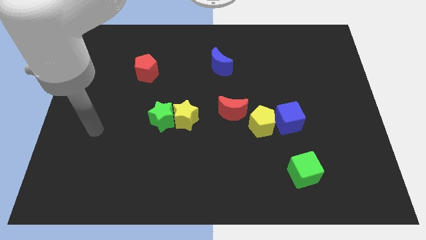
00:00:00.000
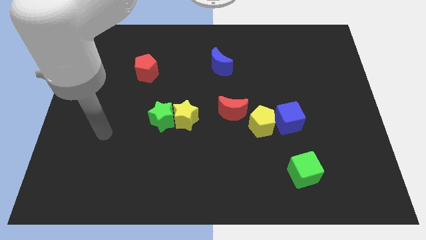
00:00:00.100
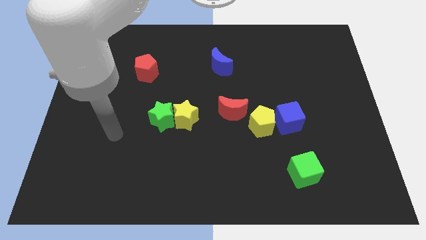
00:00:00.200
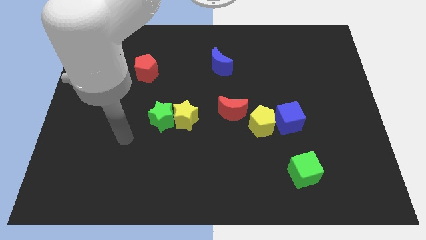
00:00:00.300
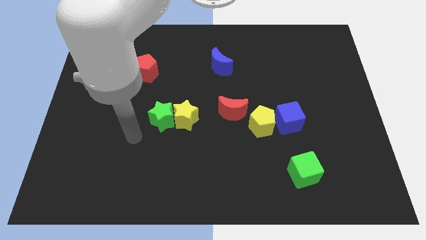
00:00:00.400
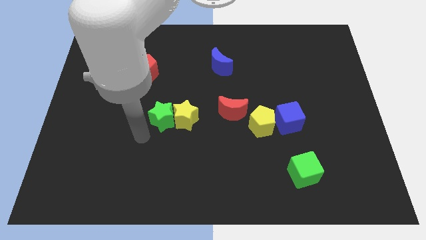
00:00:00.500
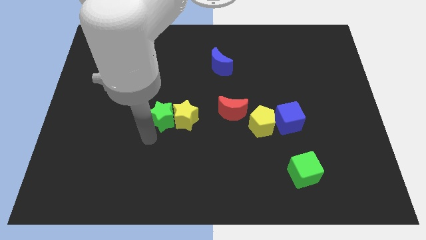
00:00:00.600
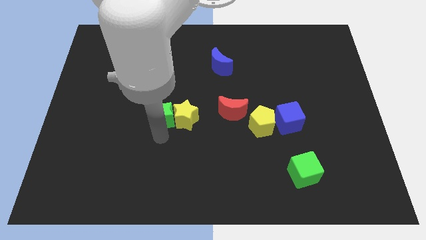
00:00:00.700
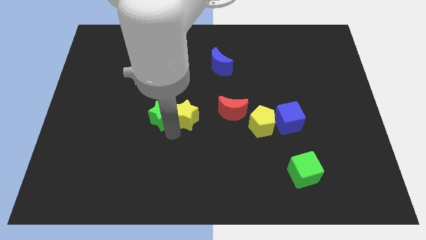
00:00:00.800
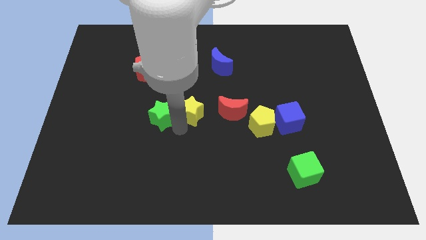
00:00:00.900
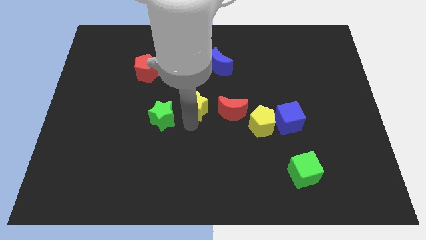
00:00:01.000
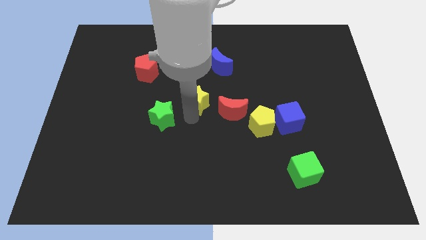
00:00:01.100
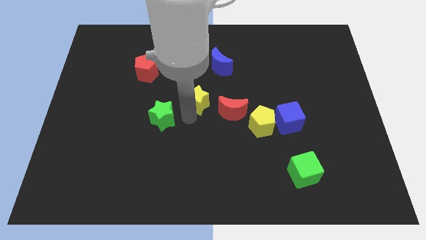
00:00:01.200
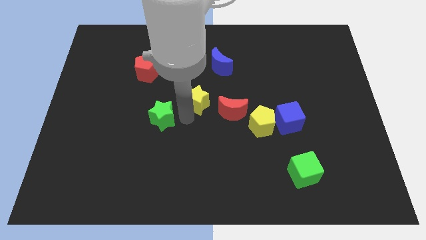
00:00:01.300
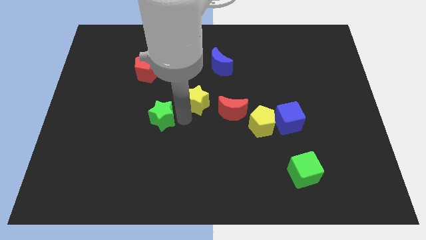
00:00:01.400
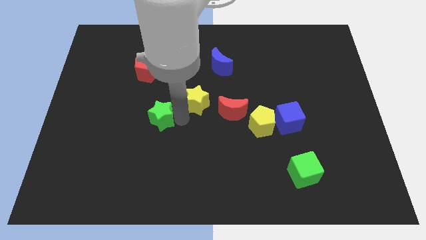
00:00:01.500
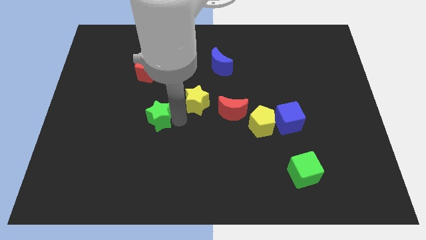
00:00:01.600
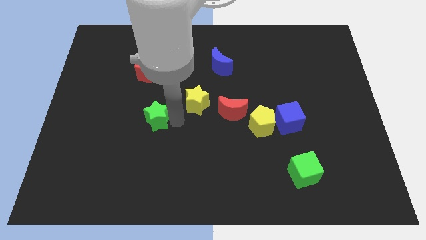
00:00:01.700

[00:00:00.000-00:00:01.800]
pull the green star apart from the yellow star

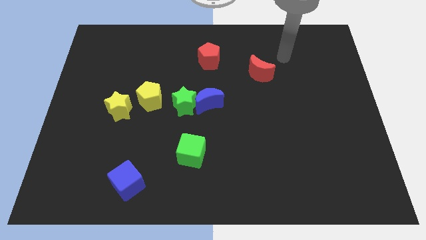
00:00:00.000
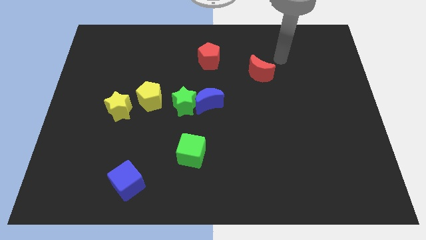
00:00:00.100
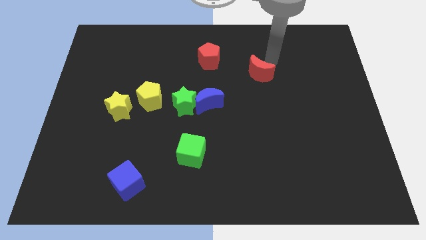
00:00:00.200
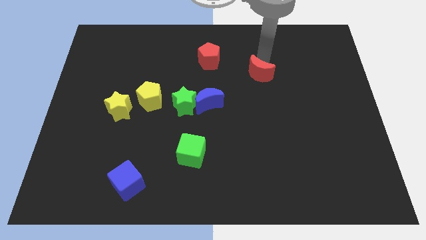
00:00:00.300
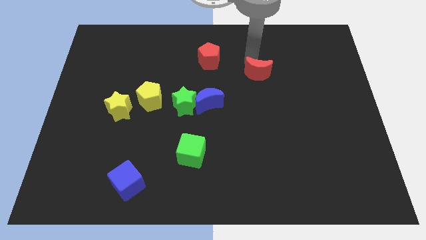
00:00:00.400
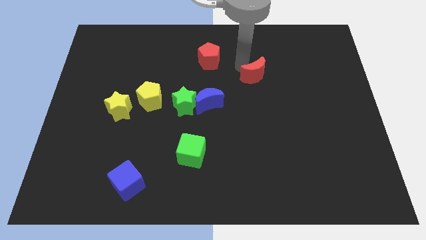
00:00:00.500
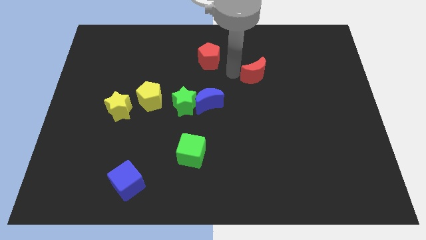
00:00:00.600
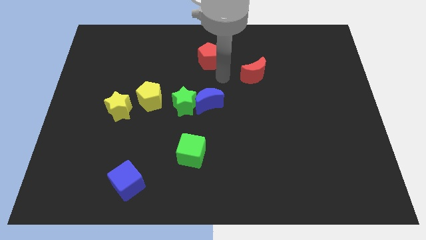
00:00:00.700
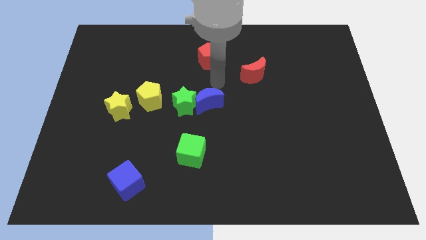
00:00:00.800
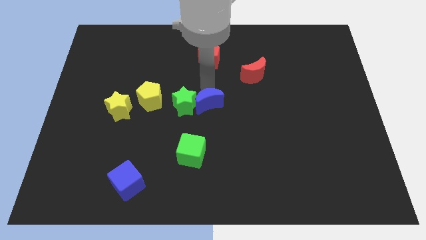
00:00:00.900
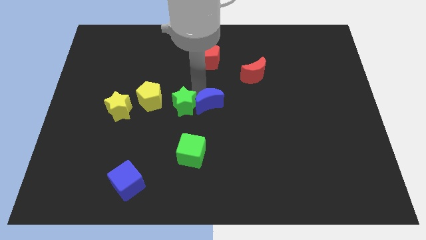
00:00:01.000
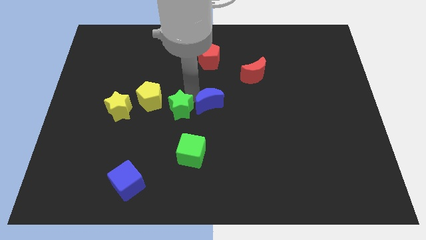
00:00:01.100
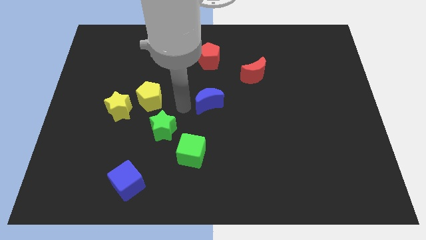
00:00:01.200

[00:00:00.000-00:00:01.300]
move the blue moon away from the green star

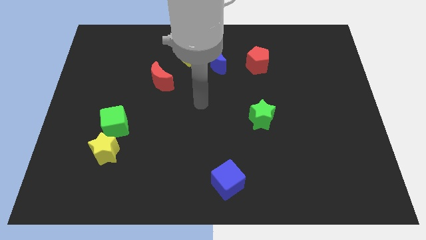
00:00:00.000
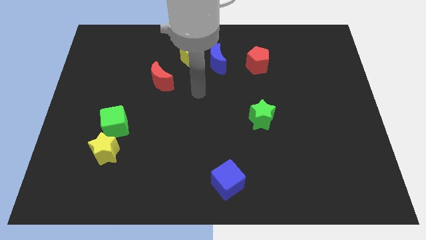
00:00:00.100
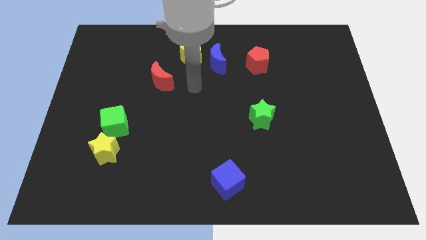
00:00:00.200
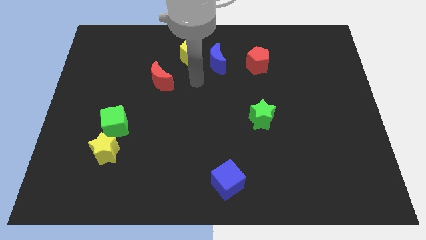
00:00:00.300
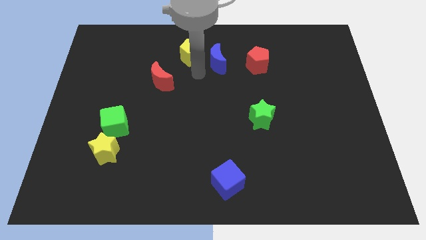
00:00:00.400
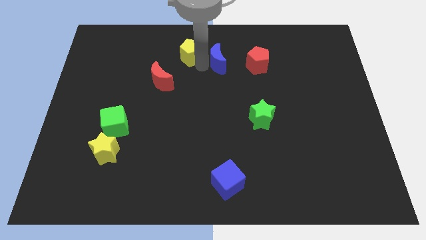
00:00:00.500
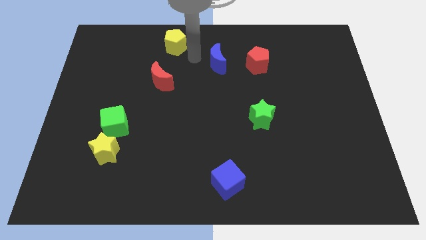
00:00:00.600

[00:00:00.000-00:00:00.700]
pull the blue moon apart from the yellow pentagon

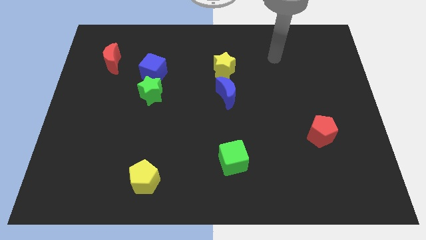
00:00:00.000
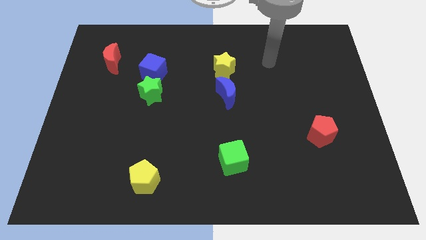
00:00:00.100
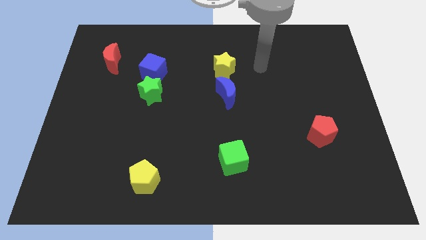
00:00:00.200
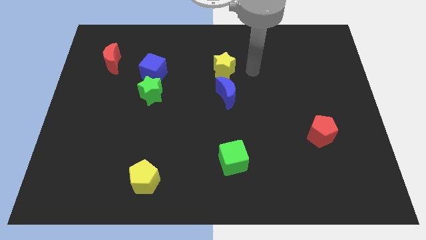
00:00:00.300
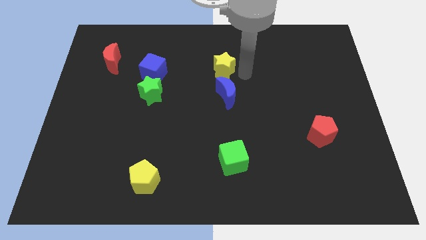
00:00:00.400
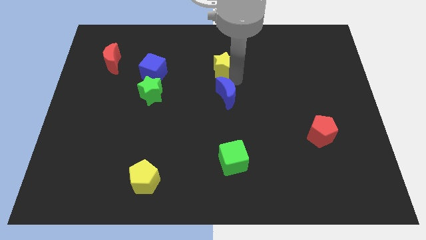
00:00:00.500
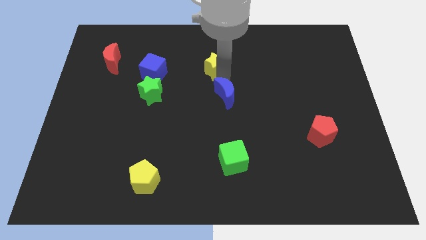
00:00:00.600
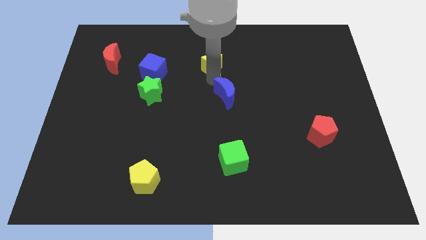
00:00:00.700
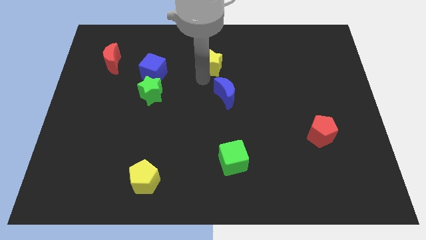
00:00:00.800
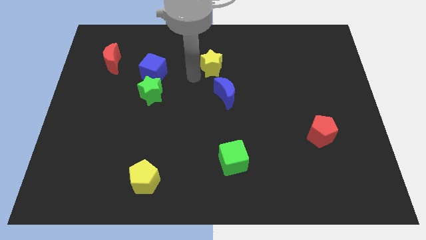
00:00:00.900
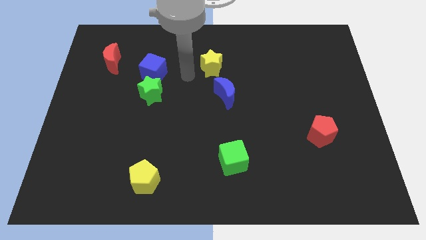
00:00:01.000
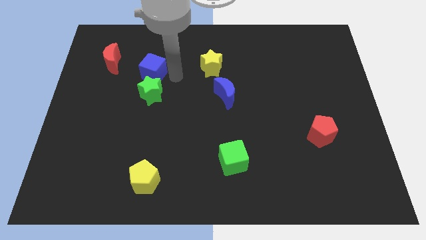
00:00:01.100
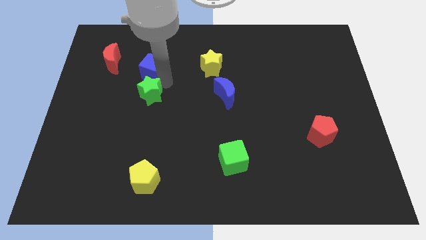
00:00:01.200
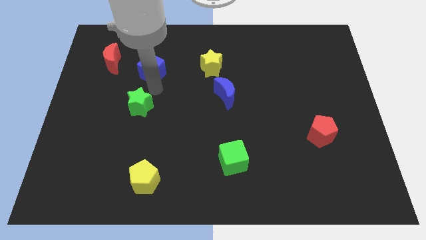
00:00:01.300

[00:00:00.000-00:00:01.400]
pull the blue cube apart from the green star

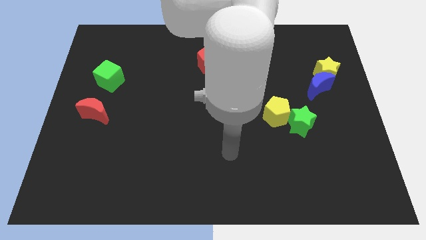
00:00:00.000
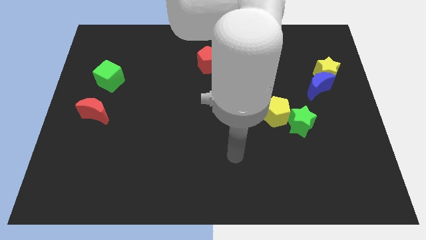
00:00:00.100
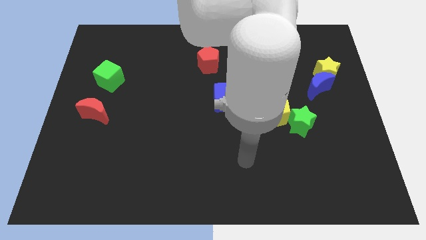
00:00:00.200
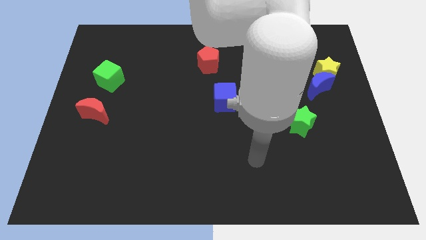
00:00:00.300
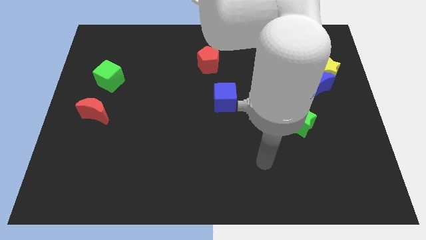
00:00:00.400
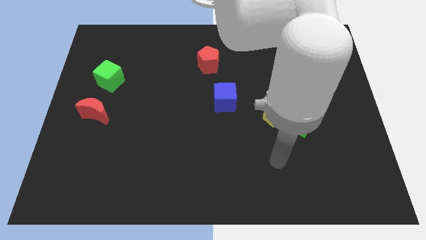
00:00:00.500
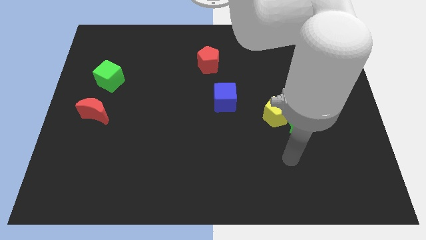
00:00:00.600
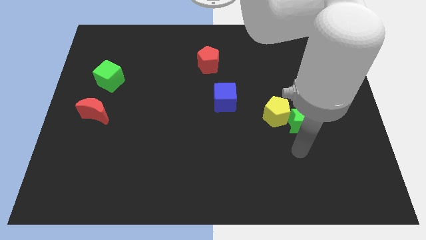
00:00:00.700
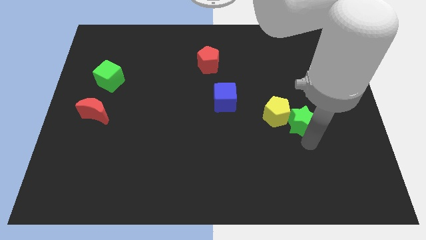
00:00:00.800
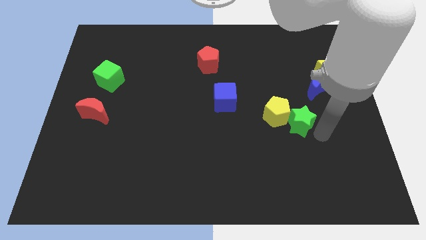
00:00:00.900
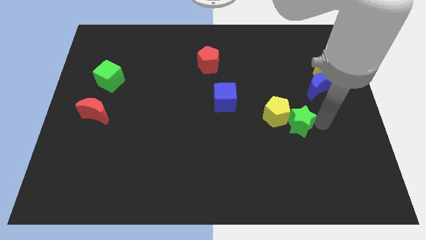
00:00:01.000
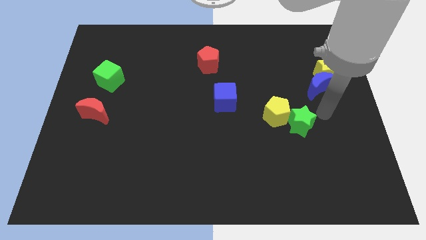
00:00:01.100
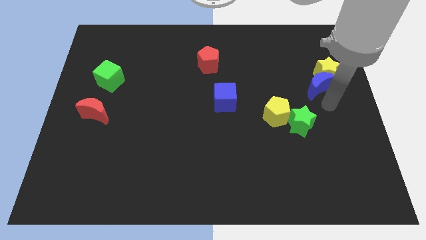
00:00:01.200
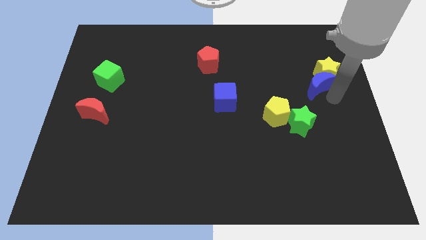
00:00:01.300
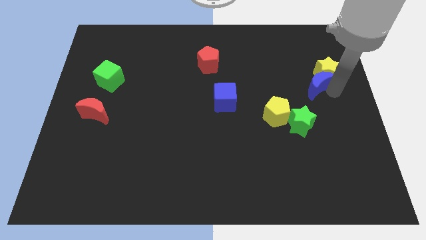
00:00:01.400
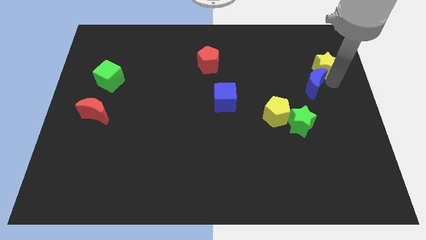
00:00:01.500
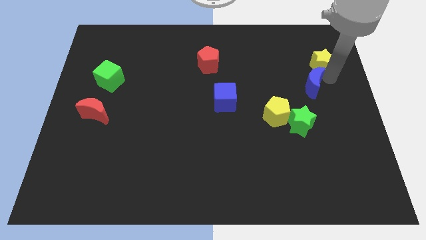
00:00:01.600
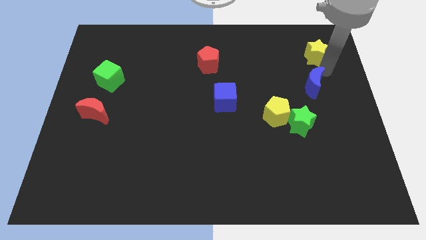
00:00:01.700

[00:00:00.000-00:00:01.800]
move the blue moon away from the yellow star

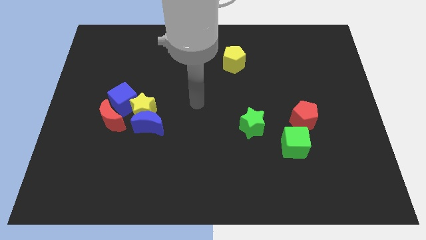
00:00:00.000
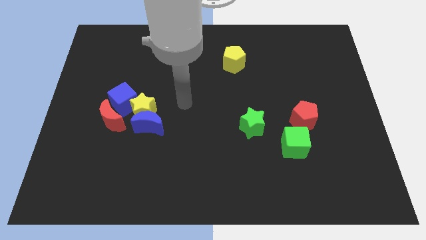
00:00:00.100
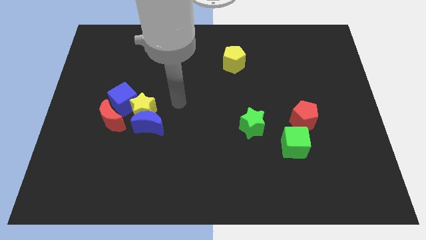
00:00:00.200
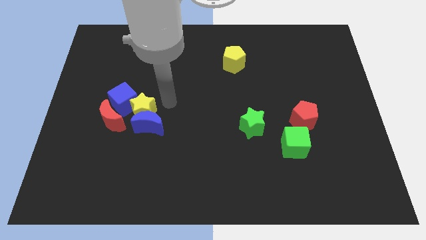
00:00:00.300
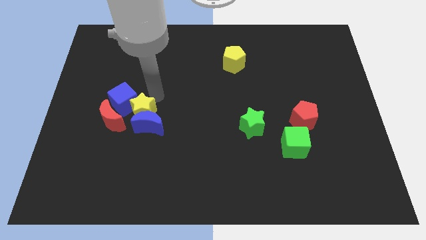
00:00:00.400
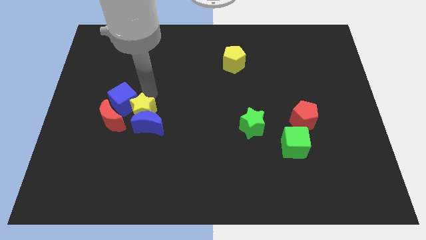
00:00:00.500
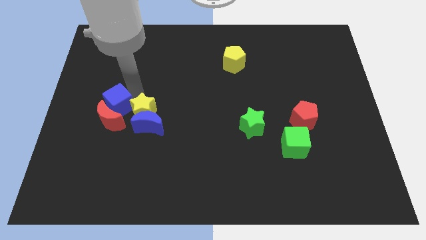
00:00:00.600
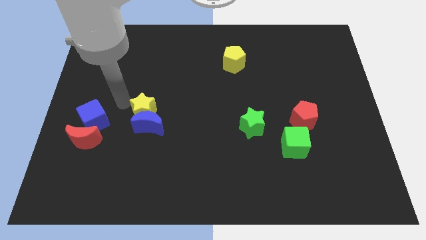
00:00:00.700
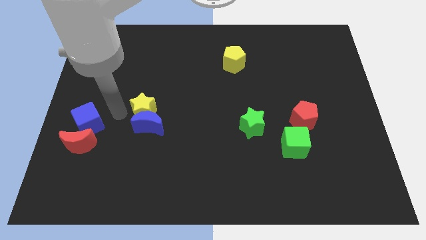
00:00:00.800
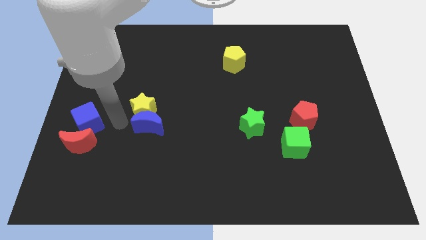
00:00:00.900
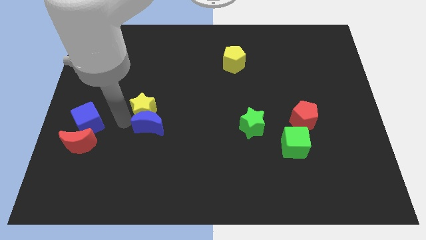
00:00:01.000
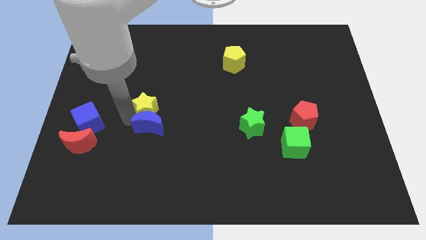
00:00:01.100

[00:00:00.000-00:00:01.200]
move the yellow star away from the clump

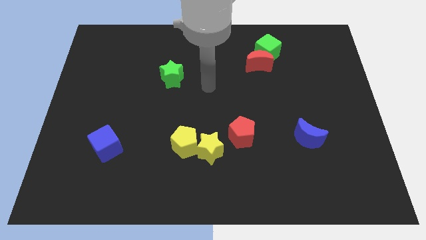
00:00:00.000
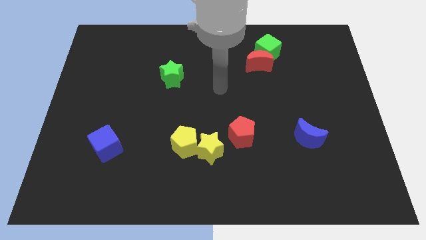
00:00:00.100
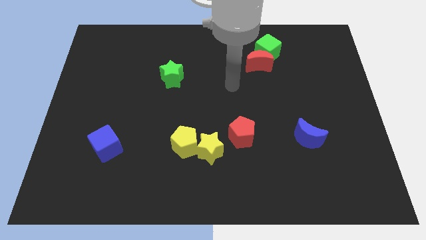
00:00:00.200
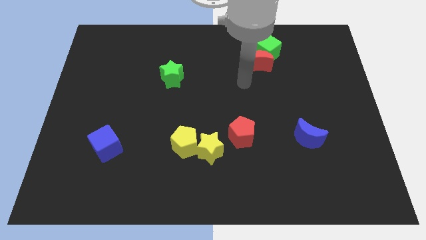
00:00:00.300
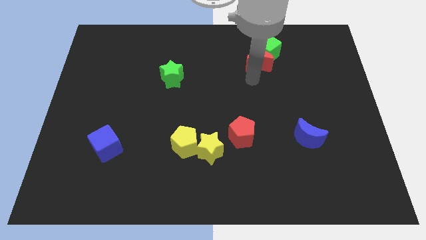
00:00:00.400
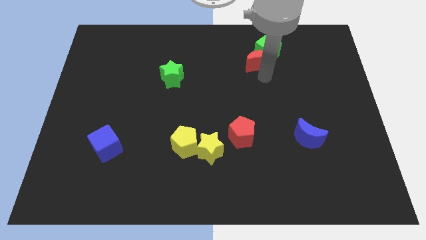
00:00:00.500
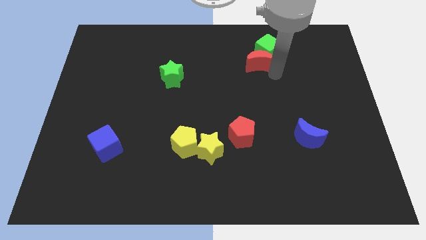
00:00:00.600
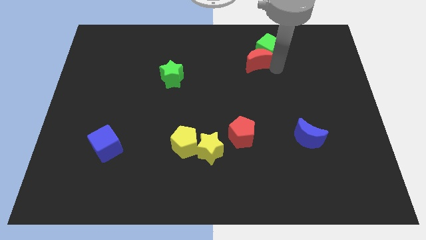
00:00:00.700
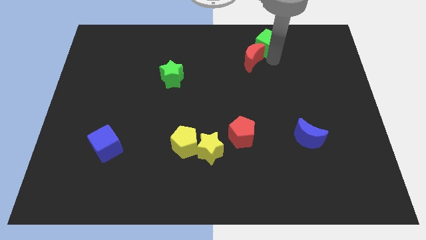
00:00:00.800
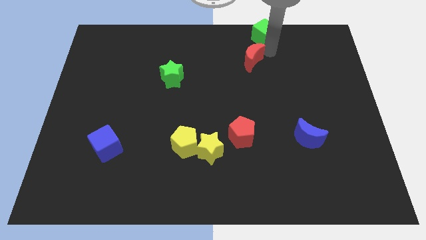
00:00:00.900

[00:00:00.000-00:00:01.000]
pull the red moon apart from the green cube
